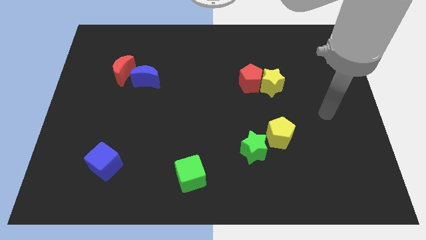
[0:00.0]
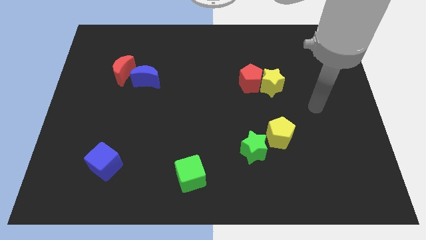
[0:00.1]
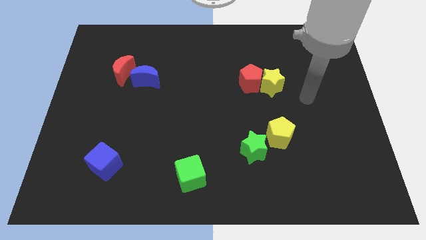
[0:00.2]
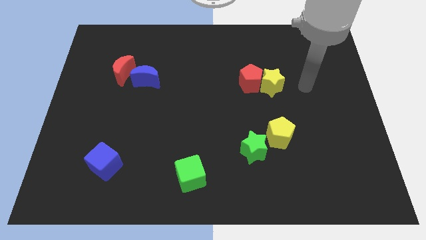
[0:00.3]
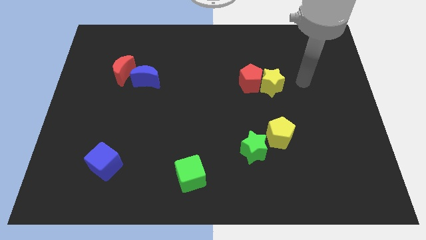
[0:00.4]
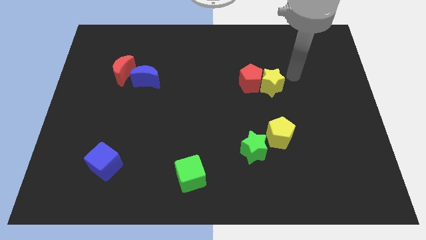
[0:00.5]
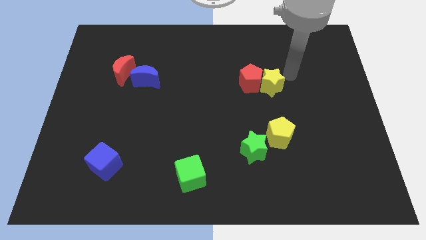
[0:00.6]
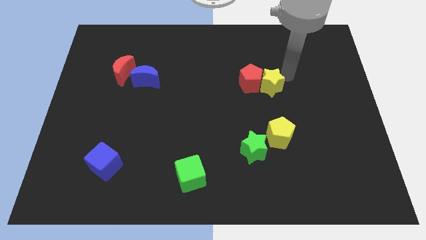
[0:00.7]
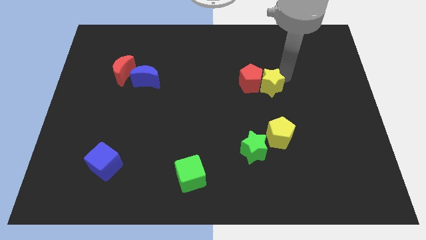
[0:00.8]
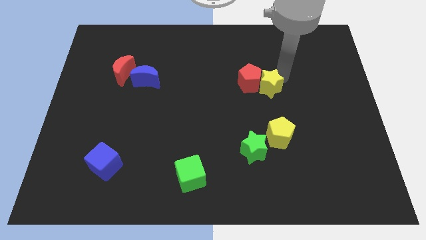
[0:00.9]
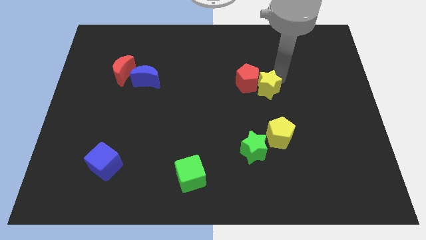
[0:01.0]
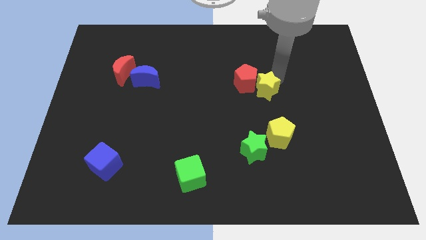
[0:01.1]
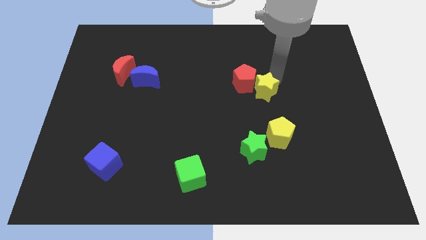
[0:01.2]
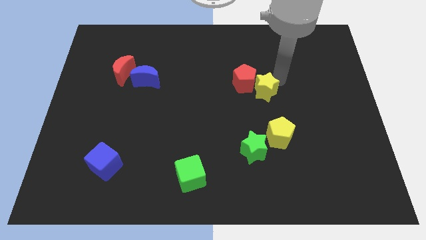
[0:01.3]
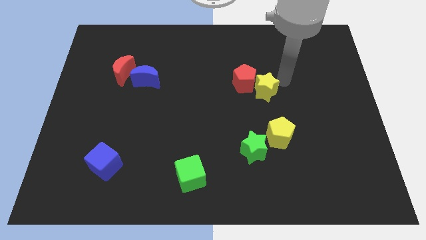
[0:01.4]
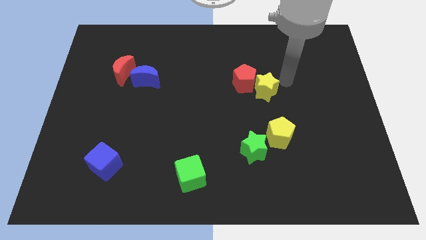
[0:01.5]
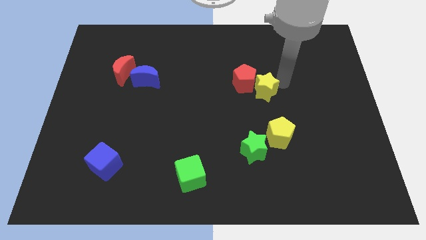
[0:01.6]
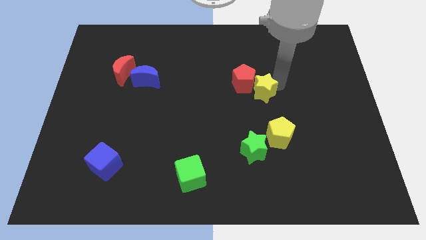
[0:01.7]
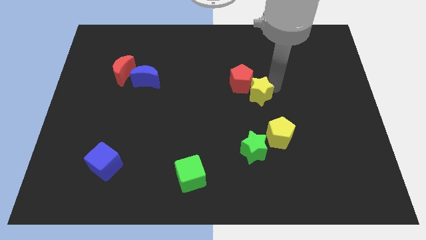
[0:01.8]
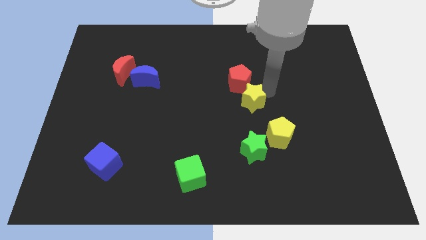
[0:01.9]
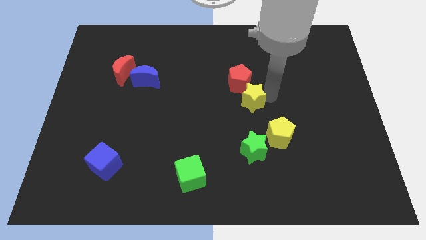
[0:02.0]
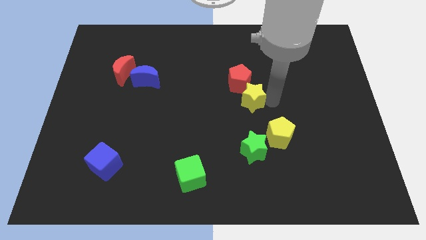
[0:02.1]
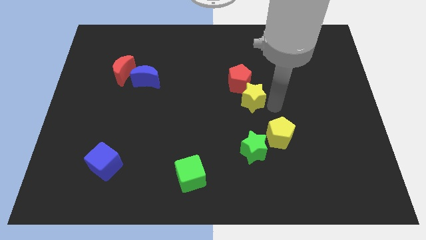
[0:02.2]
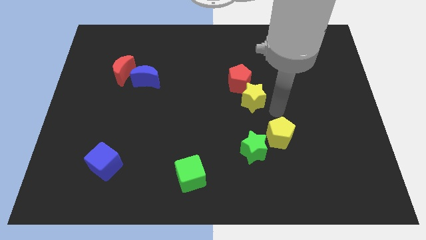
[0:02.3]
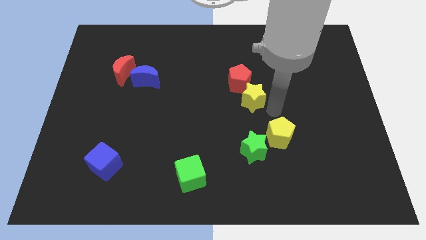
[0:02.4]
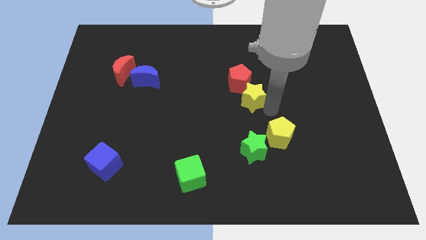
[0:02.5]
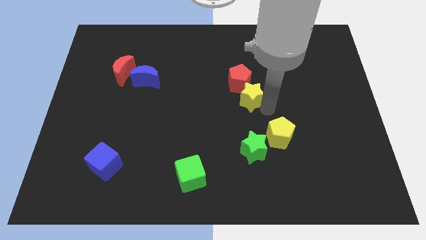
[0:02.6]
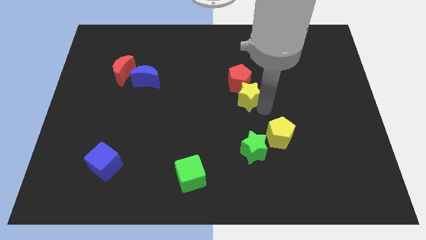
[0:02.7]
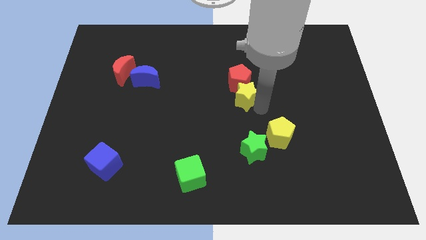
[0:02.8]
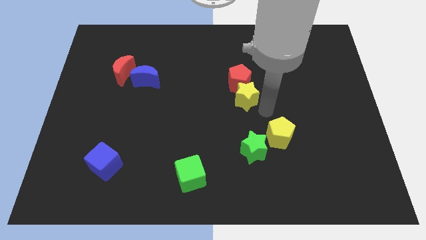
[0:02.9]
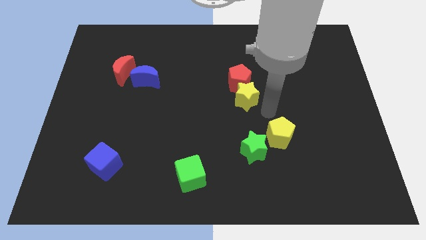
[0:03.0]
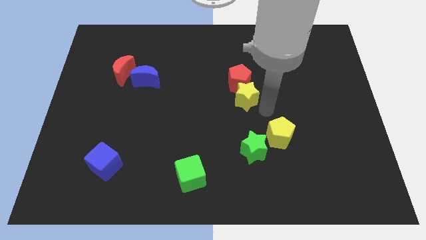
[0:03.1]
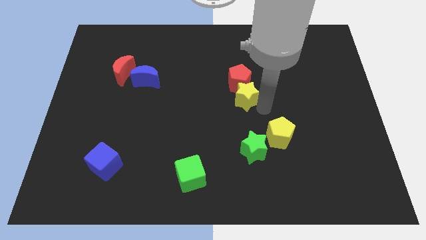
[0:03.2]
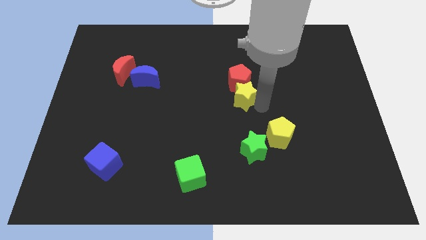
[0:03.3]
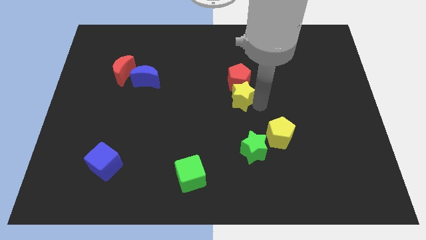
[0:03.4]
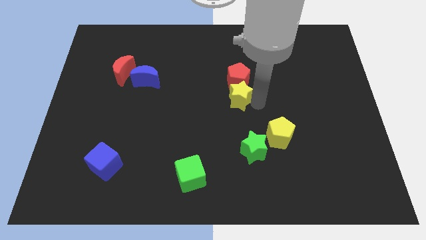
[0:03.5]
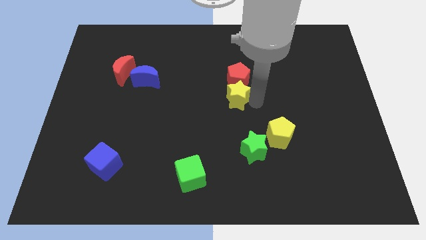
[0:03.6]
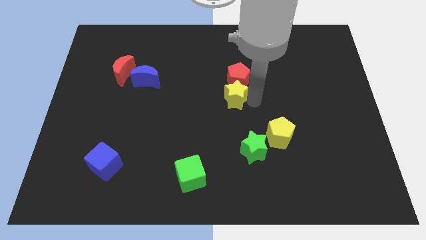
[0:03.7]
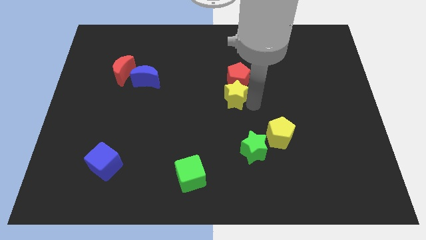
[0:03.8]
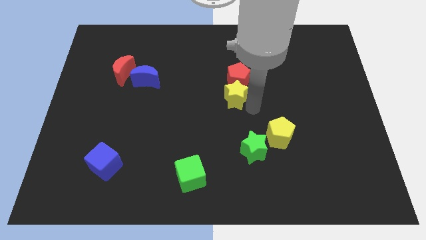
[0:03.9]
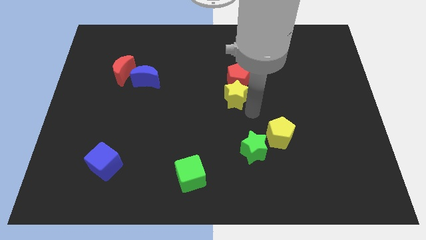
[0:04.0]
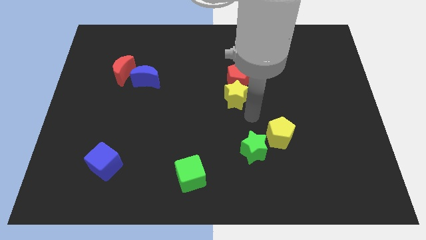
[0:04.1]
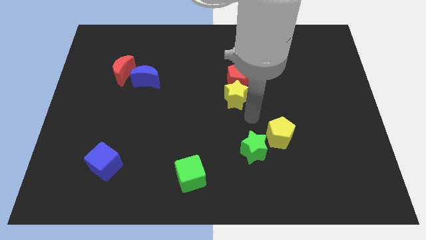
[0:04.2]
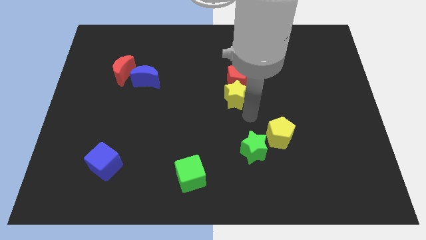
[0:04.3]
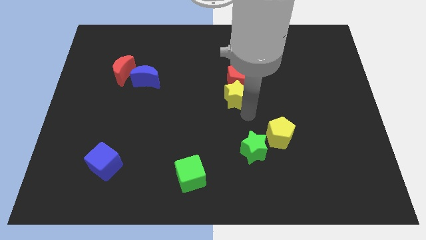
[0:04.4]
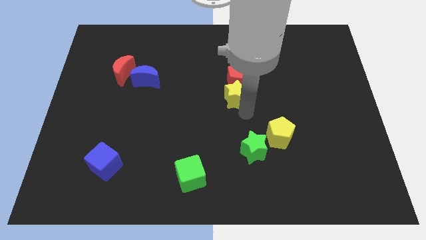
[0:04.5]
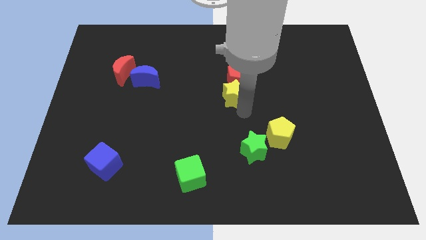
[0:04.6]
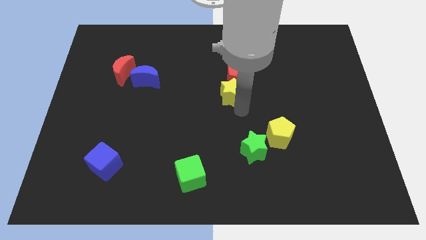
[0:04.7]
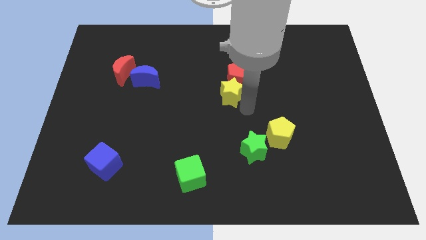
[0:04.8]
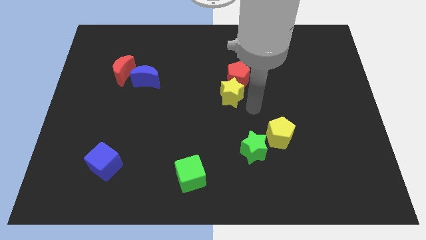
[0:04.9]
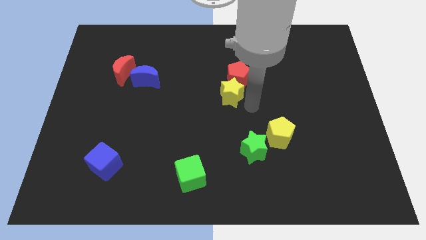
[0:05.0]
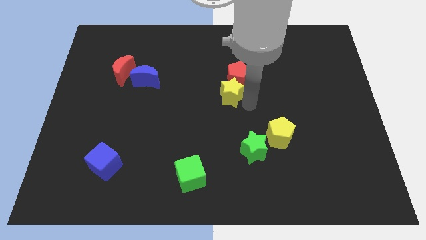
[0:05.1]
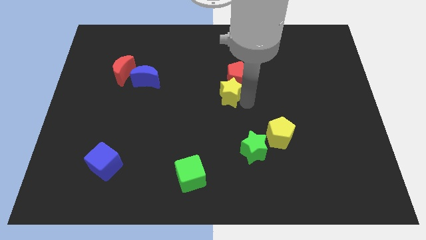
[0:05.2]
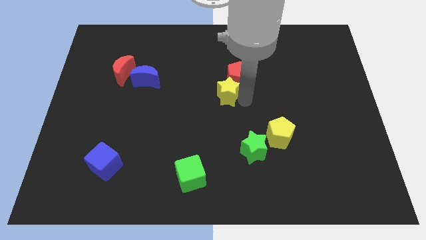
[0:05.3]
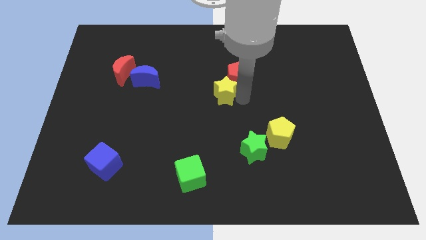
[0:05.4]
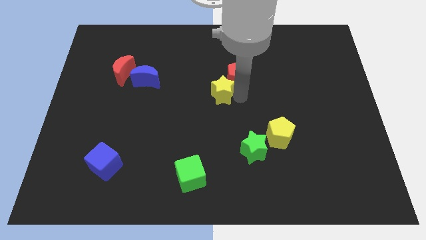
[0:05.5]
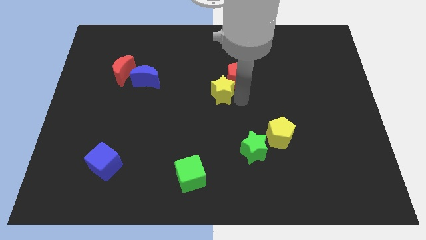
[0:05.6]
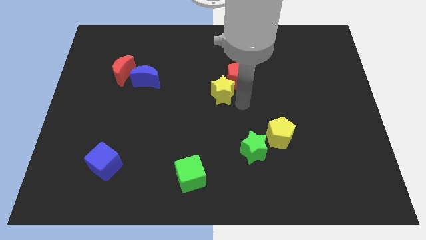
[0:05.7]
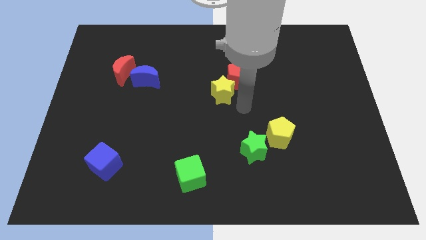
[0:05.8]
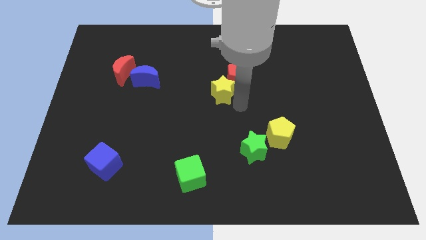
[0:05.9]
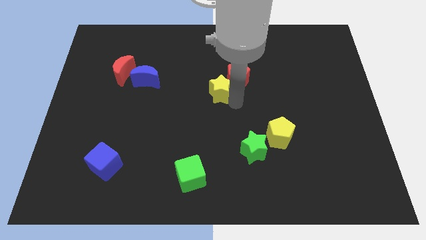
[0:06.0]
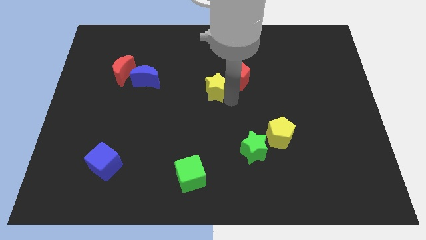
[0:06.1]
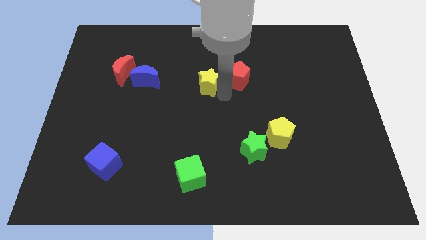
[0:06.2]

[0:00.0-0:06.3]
put the yellow star to the right side of the blue moon

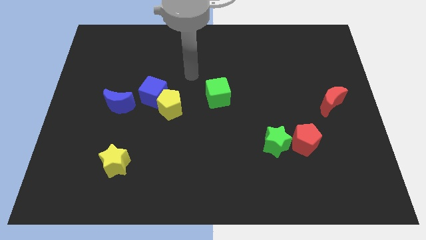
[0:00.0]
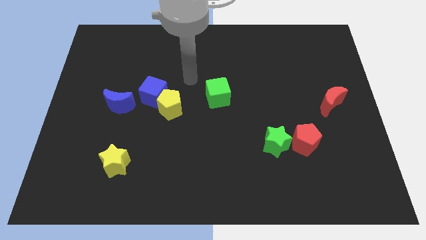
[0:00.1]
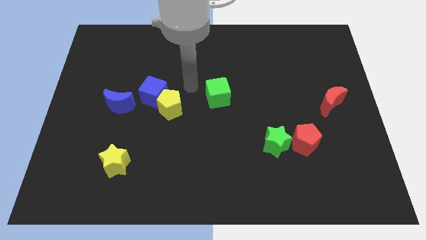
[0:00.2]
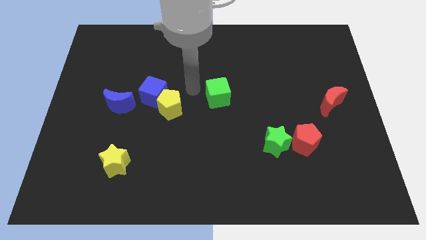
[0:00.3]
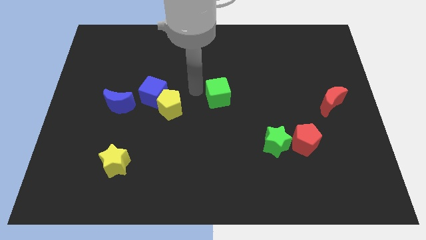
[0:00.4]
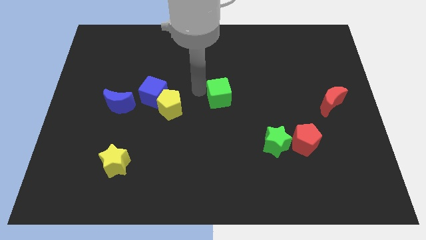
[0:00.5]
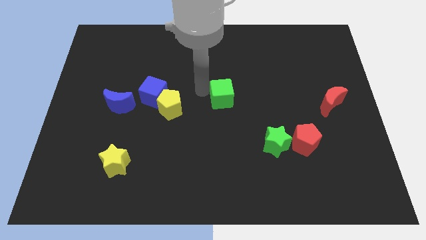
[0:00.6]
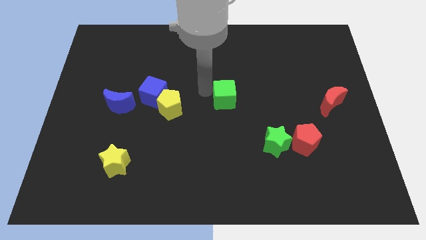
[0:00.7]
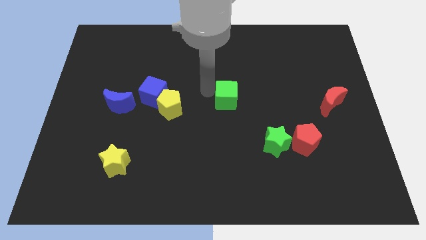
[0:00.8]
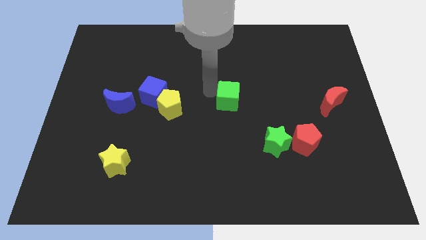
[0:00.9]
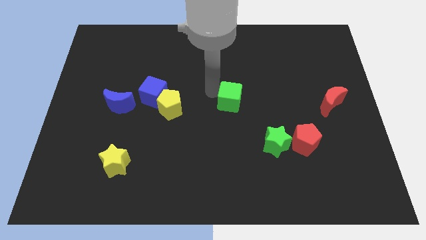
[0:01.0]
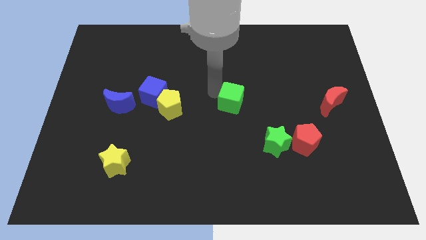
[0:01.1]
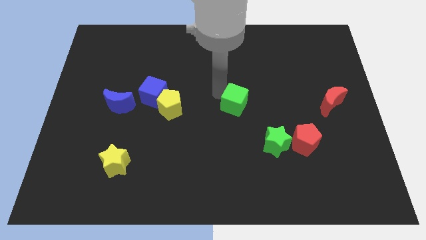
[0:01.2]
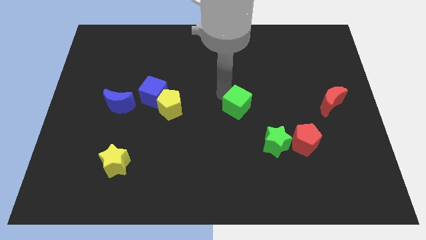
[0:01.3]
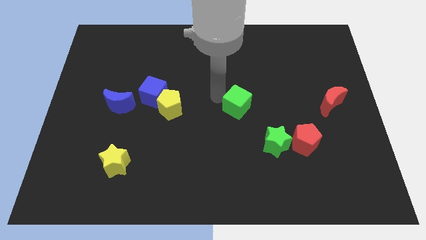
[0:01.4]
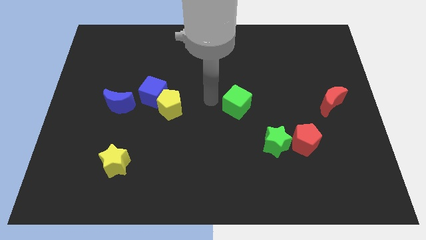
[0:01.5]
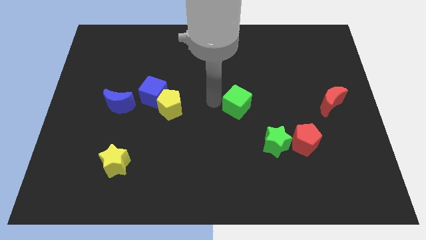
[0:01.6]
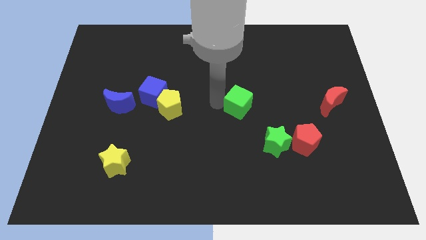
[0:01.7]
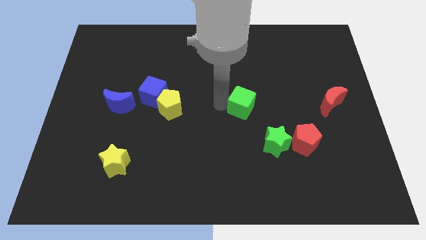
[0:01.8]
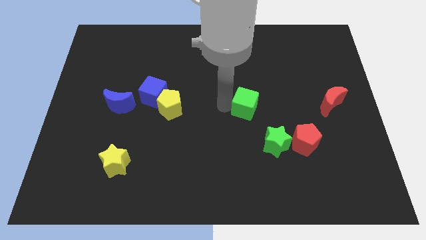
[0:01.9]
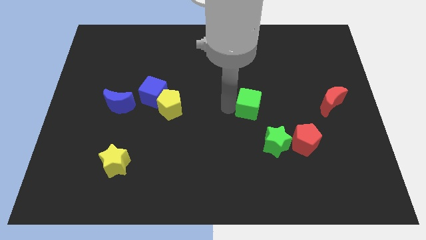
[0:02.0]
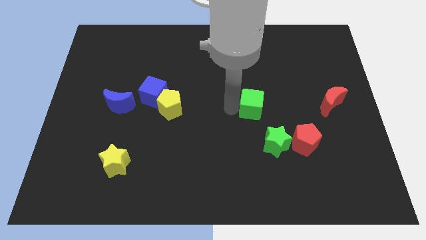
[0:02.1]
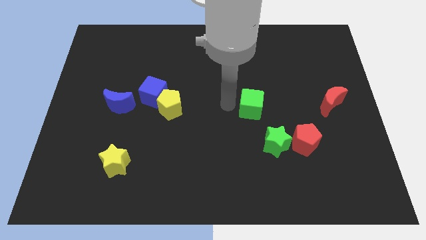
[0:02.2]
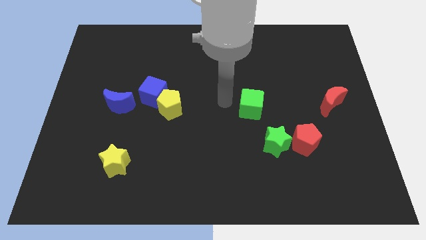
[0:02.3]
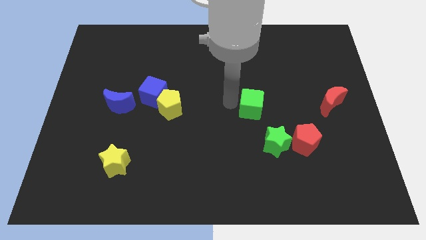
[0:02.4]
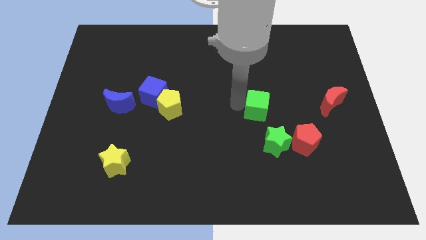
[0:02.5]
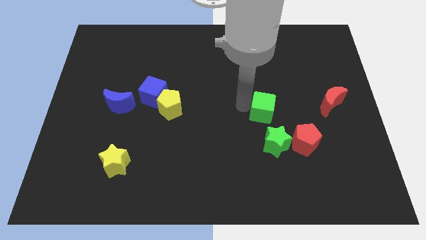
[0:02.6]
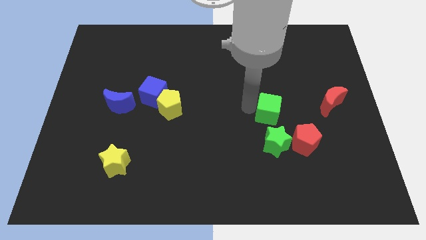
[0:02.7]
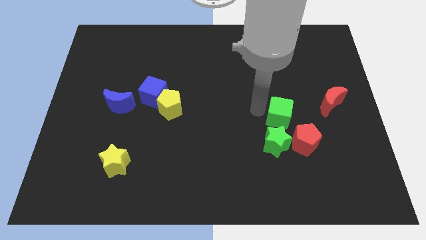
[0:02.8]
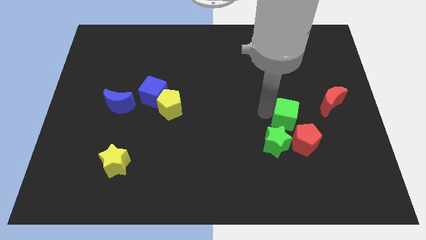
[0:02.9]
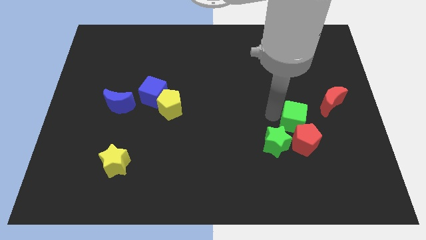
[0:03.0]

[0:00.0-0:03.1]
put the green cube diagonally down and to the left of the red moon
